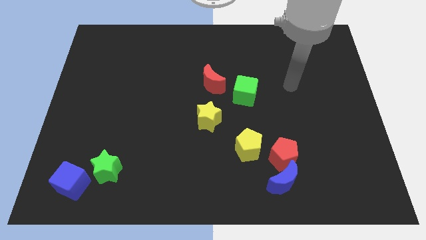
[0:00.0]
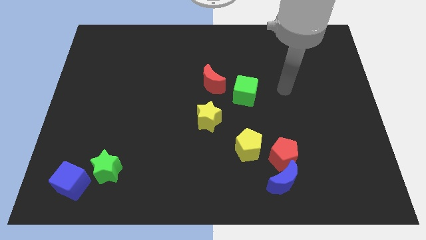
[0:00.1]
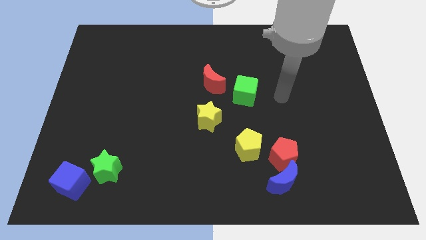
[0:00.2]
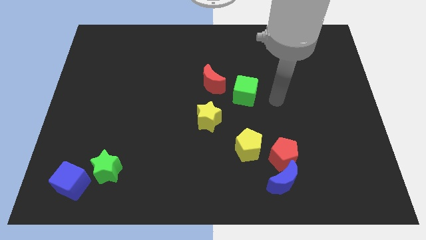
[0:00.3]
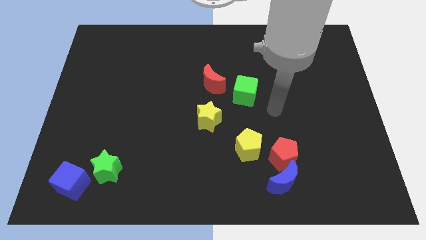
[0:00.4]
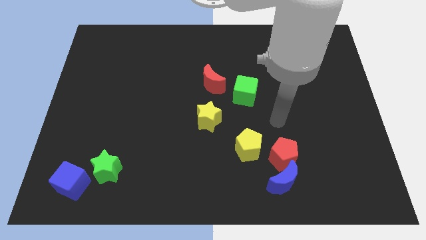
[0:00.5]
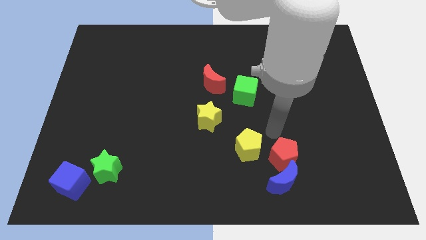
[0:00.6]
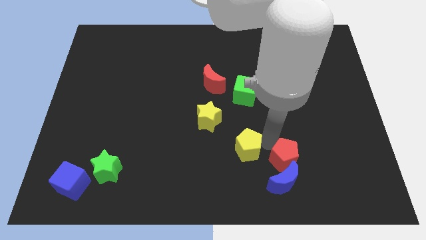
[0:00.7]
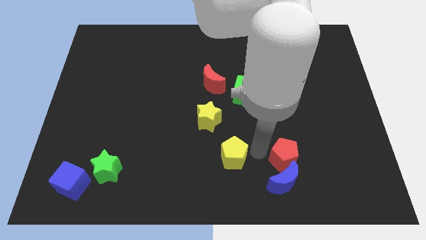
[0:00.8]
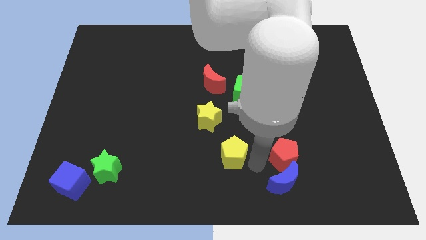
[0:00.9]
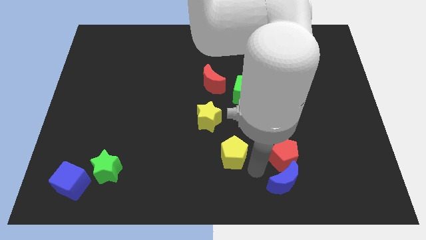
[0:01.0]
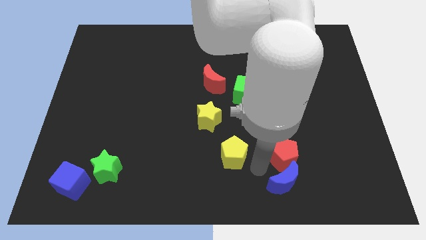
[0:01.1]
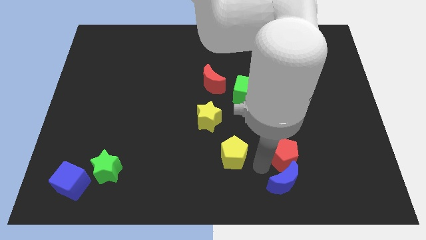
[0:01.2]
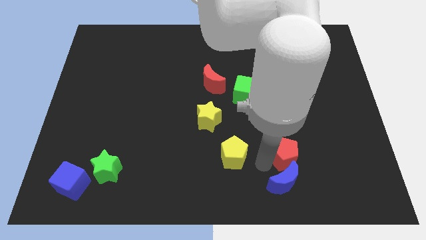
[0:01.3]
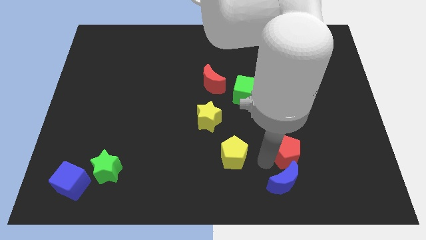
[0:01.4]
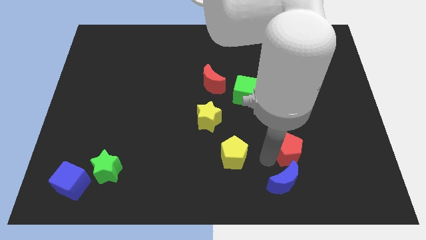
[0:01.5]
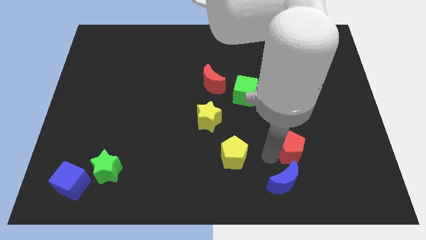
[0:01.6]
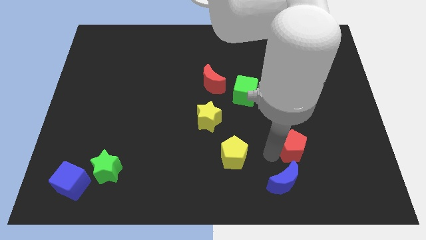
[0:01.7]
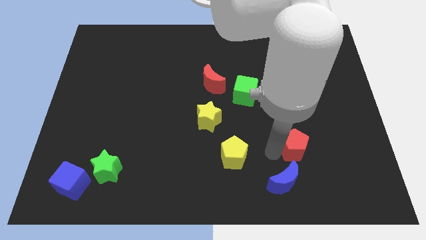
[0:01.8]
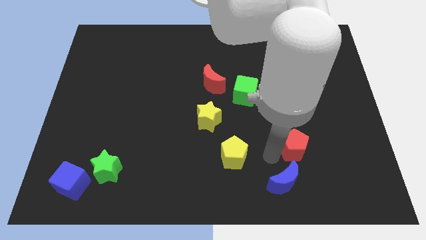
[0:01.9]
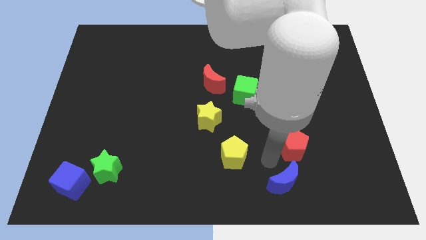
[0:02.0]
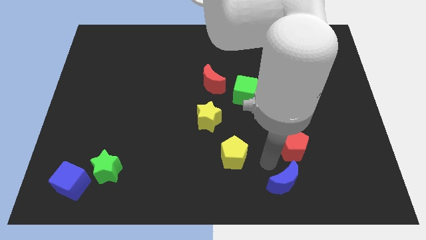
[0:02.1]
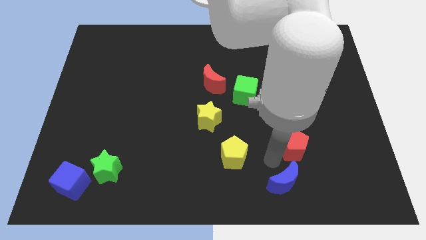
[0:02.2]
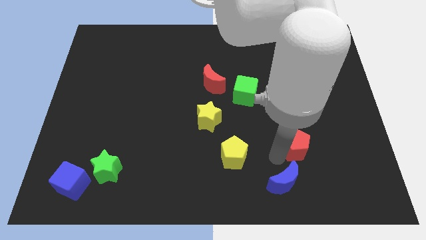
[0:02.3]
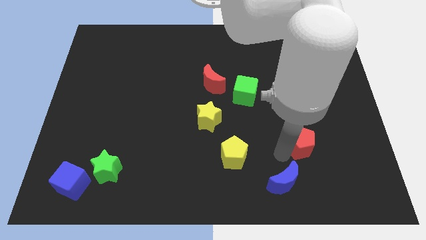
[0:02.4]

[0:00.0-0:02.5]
pull the red pentagon apart from the blue moon and yellow pentagon

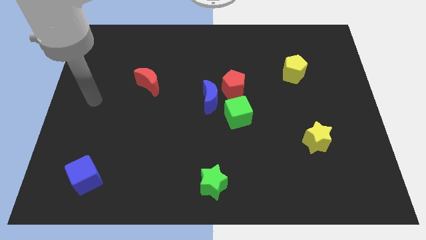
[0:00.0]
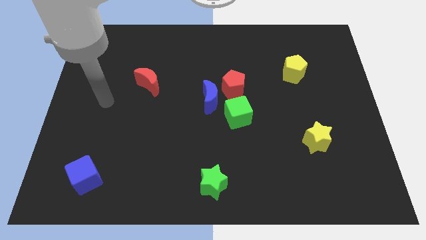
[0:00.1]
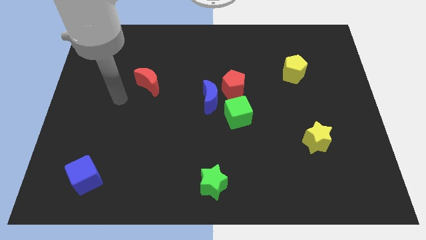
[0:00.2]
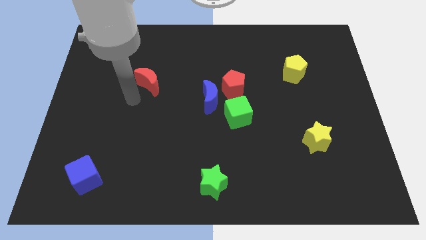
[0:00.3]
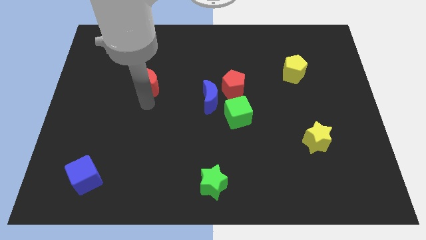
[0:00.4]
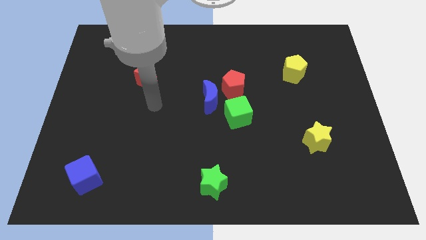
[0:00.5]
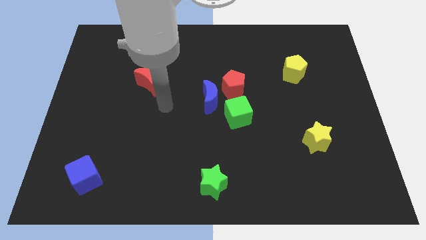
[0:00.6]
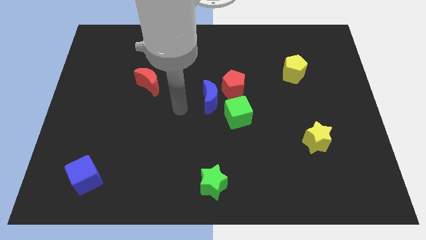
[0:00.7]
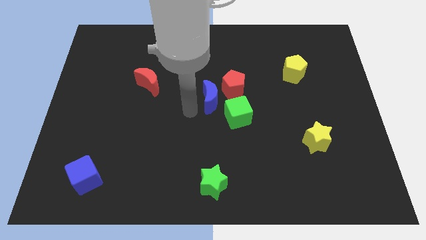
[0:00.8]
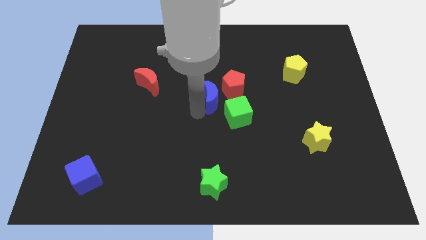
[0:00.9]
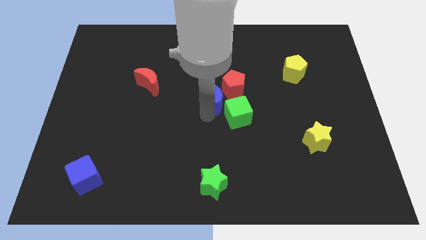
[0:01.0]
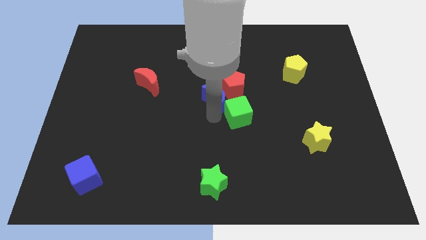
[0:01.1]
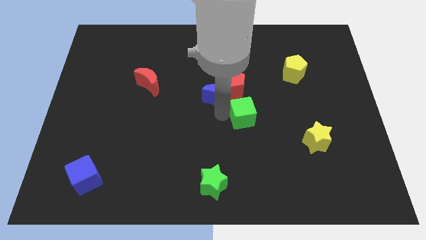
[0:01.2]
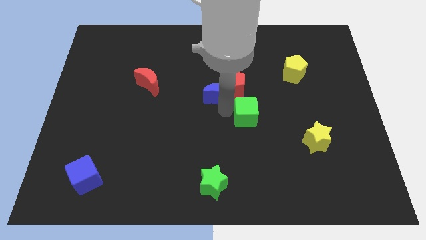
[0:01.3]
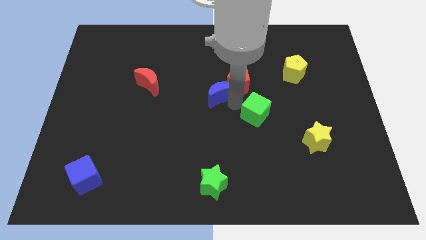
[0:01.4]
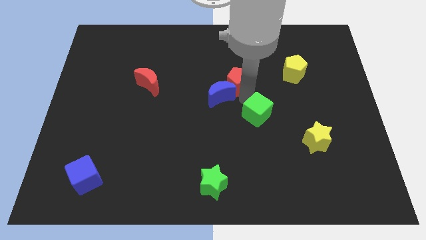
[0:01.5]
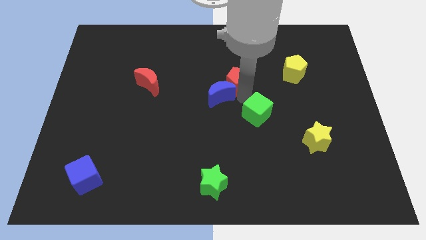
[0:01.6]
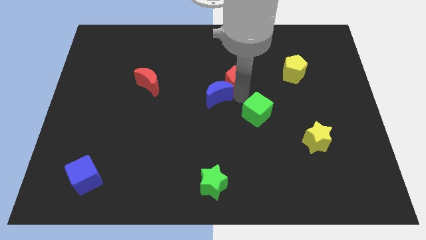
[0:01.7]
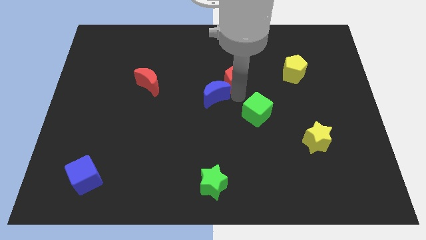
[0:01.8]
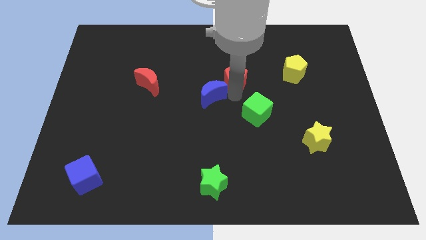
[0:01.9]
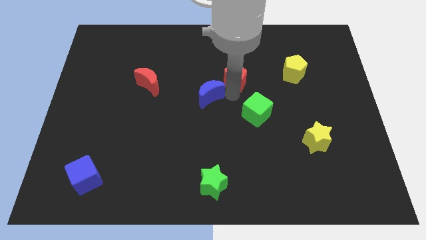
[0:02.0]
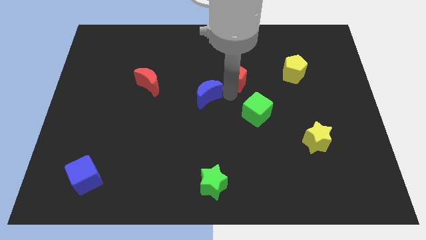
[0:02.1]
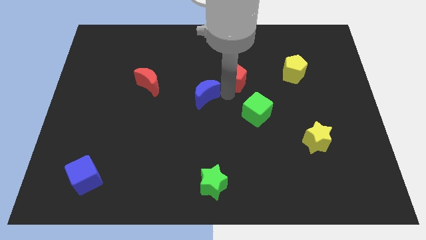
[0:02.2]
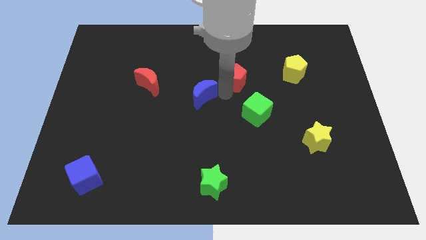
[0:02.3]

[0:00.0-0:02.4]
pull the blue moon apart from the red pentagon and green cube

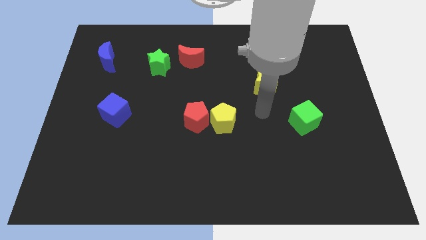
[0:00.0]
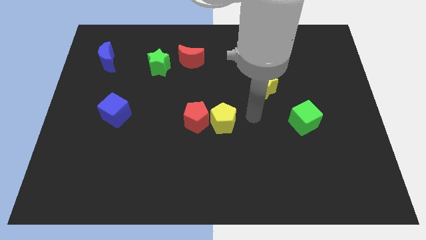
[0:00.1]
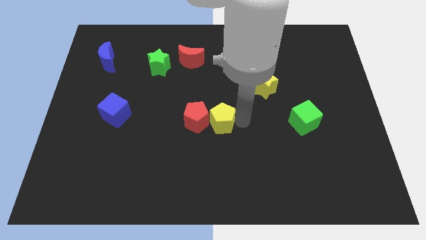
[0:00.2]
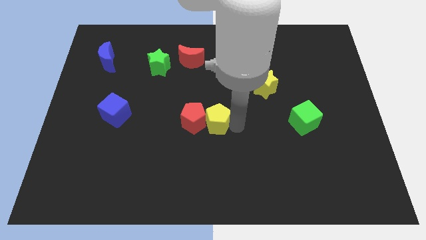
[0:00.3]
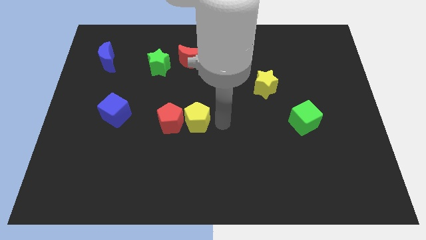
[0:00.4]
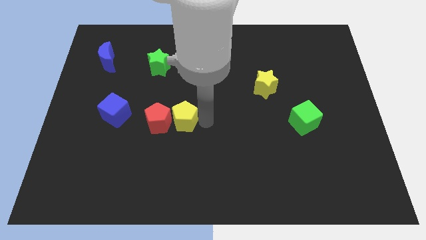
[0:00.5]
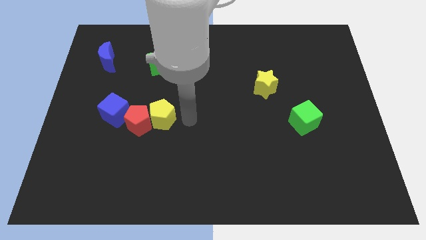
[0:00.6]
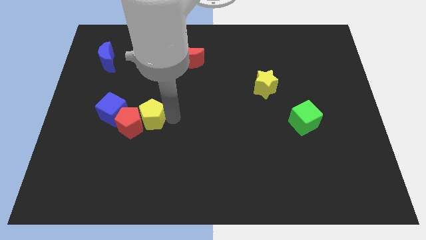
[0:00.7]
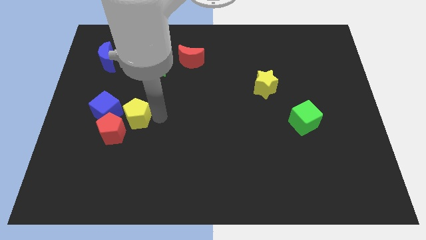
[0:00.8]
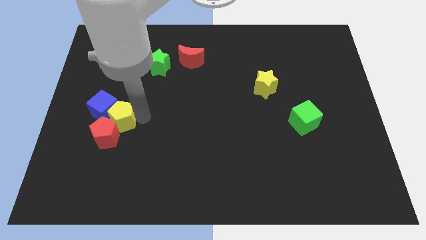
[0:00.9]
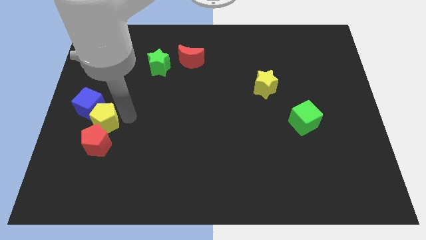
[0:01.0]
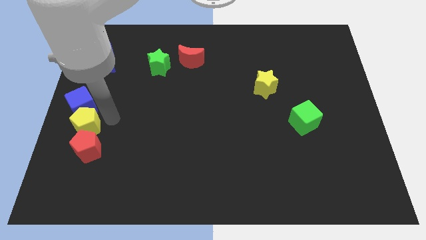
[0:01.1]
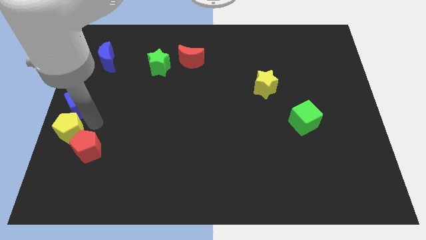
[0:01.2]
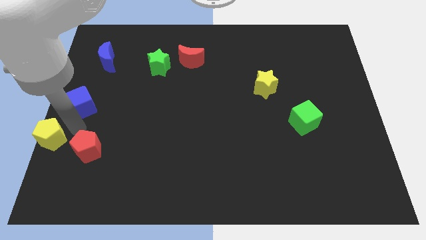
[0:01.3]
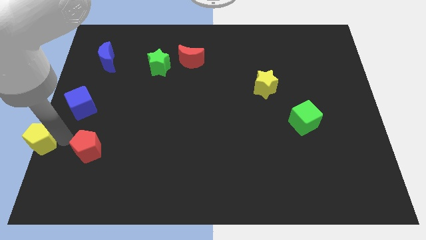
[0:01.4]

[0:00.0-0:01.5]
pull the red pentagon apart from the yellow pentagon

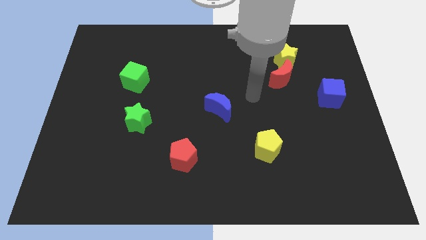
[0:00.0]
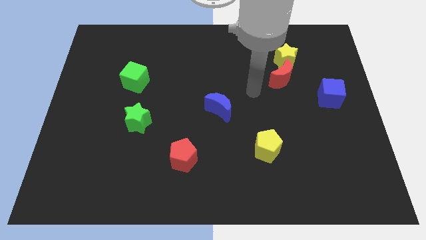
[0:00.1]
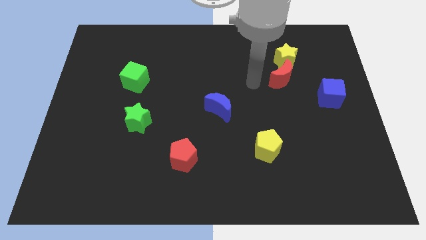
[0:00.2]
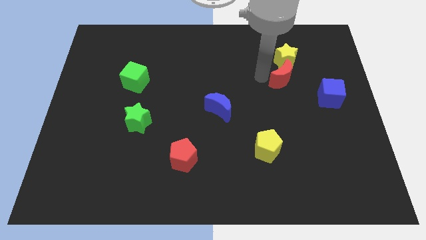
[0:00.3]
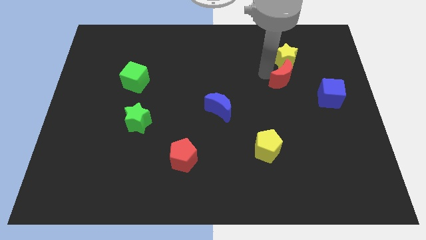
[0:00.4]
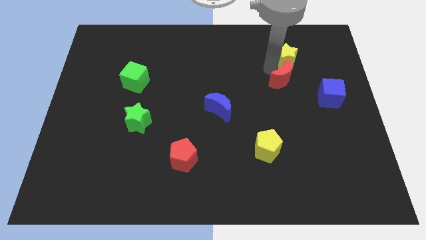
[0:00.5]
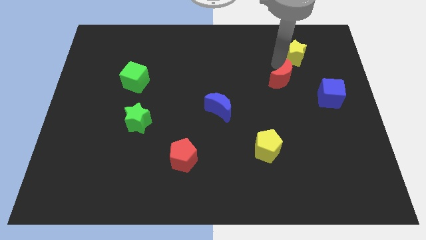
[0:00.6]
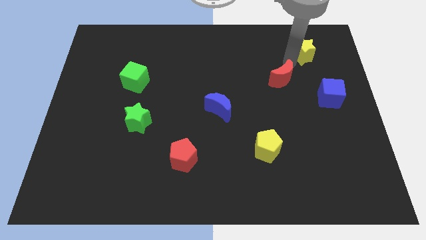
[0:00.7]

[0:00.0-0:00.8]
pull the red moon apart from the yellow star

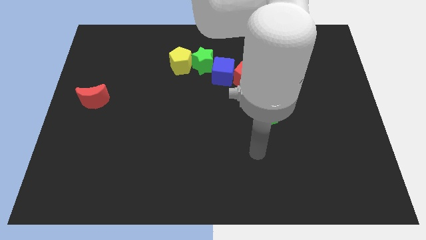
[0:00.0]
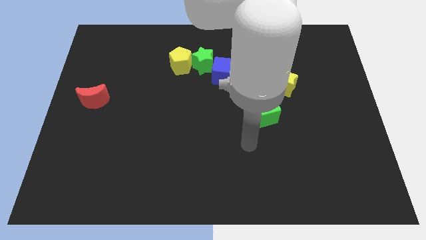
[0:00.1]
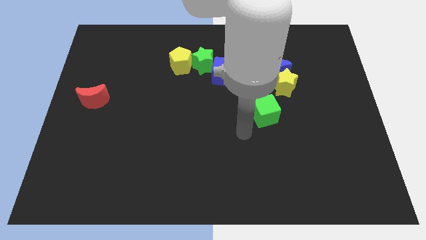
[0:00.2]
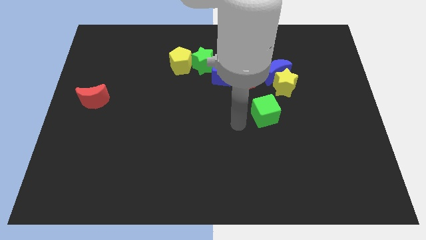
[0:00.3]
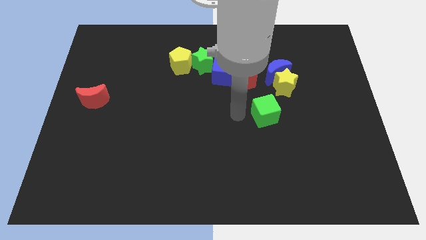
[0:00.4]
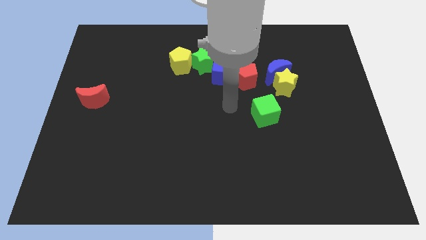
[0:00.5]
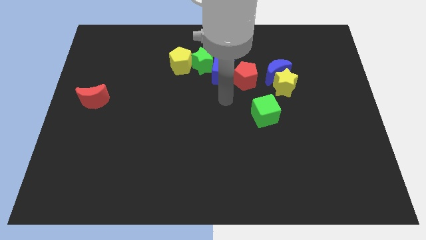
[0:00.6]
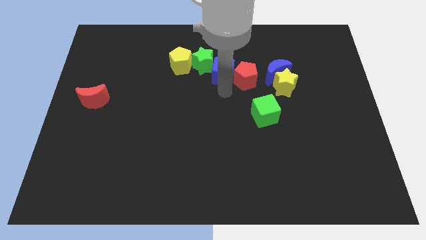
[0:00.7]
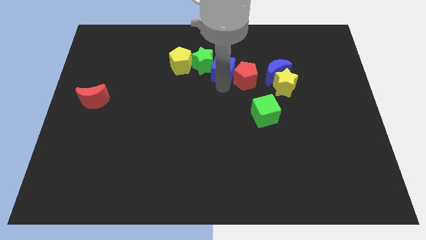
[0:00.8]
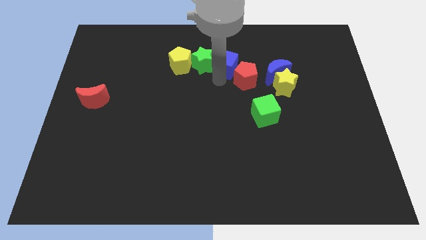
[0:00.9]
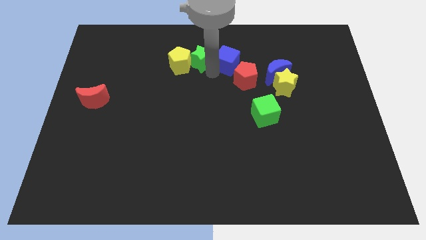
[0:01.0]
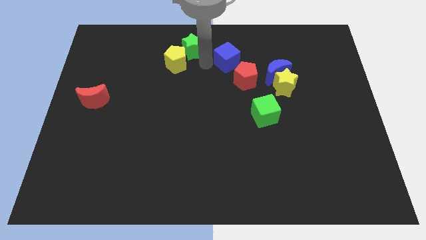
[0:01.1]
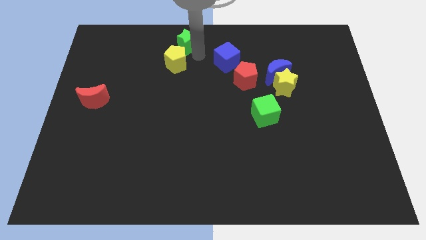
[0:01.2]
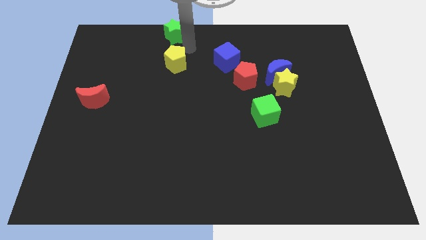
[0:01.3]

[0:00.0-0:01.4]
move the yellow pentagon away from the green star

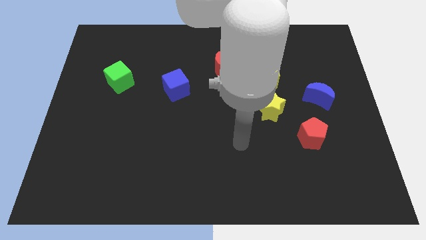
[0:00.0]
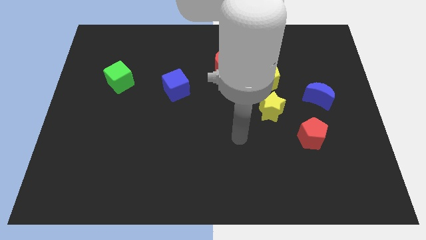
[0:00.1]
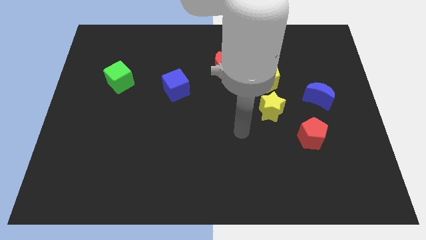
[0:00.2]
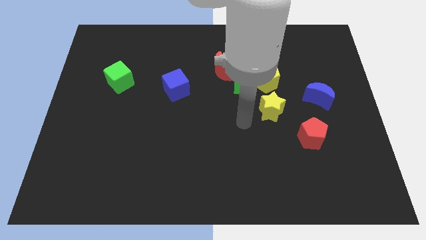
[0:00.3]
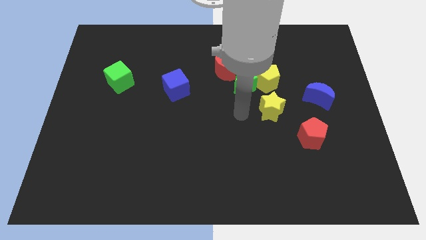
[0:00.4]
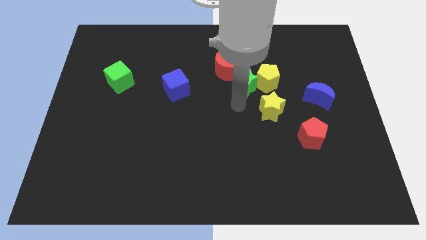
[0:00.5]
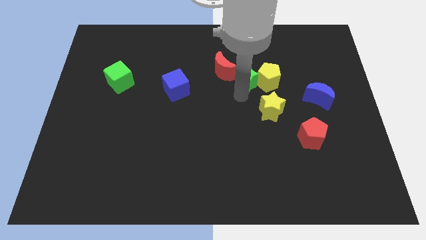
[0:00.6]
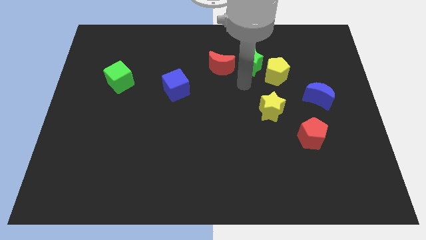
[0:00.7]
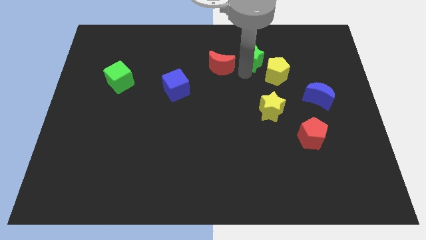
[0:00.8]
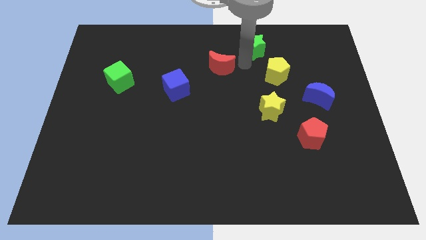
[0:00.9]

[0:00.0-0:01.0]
pull the red moon apart from the green star
